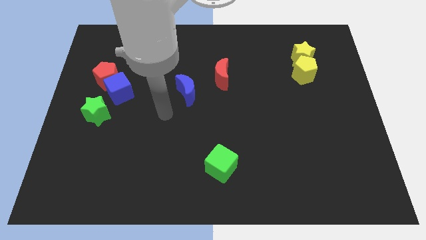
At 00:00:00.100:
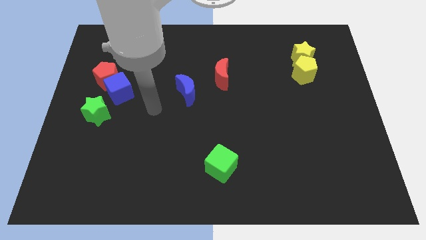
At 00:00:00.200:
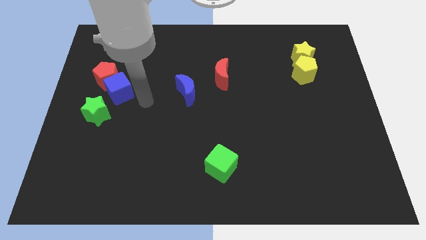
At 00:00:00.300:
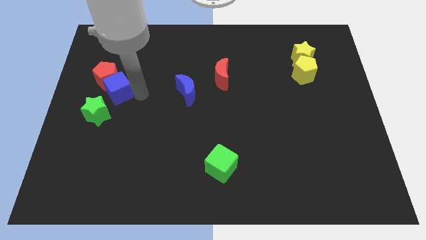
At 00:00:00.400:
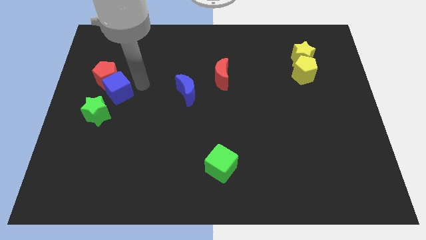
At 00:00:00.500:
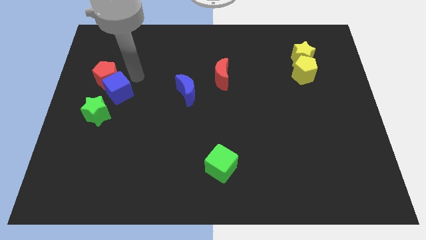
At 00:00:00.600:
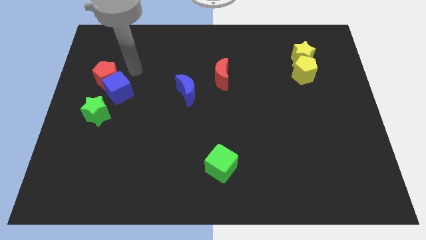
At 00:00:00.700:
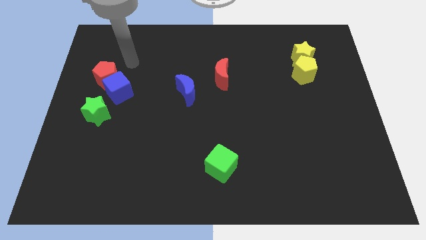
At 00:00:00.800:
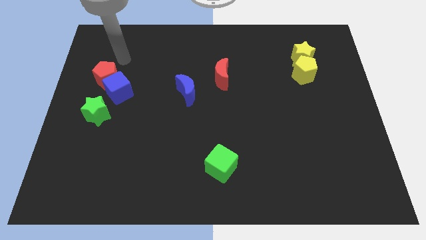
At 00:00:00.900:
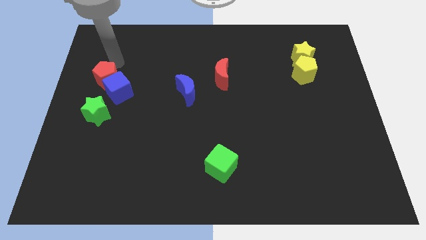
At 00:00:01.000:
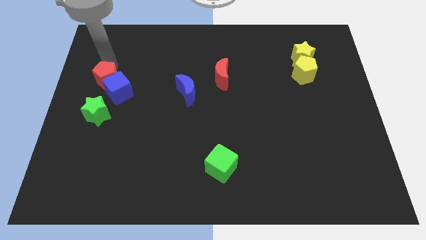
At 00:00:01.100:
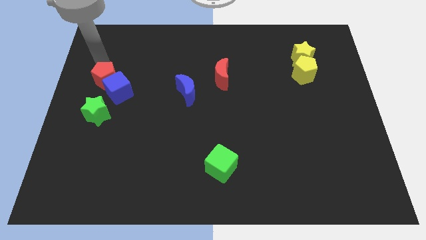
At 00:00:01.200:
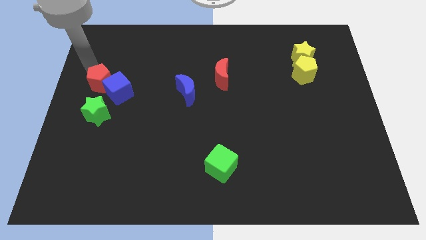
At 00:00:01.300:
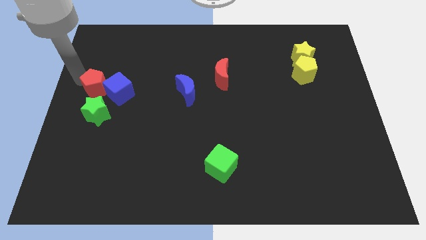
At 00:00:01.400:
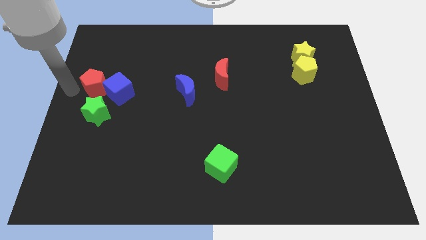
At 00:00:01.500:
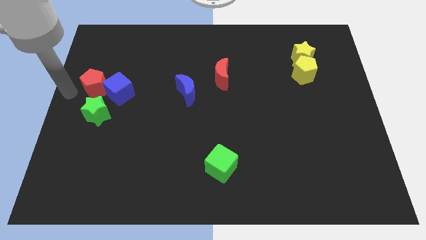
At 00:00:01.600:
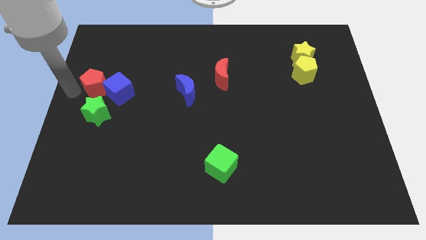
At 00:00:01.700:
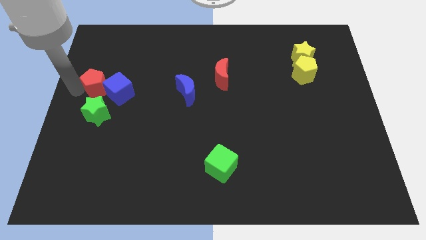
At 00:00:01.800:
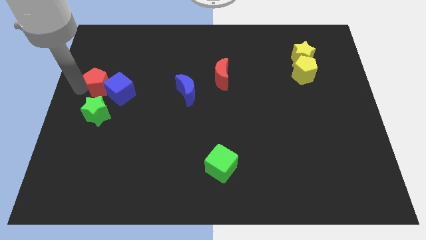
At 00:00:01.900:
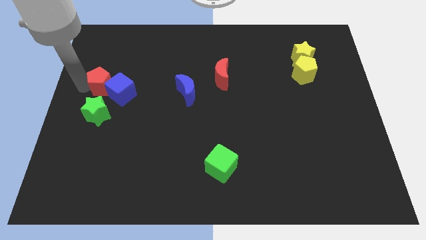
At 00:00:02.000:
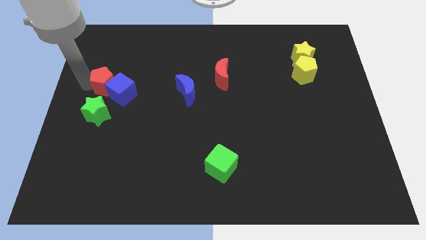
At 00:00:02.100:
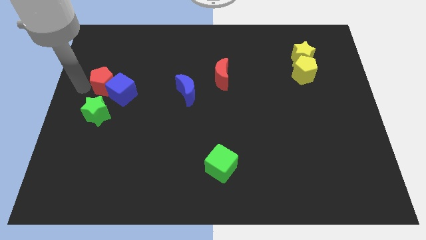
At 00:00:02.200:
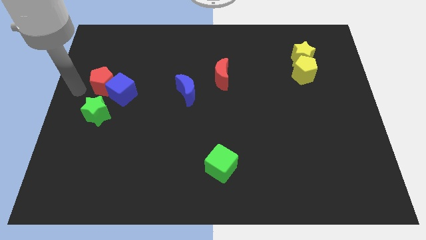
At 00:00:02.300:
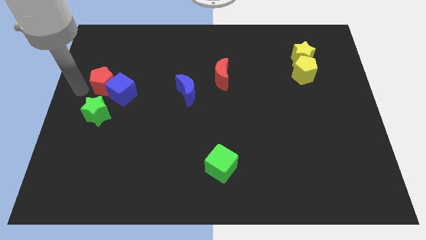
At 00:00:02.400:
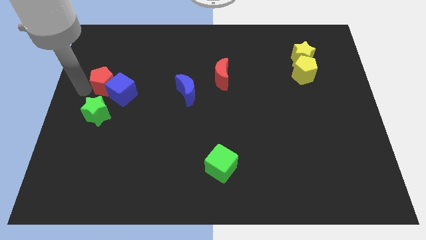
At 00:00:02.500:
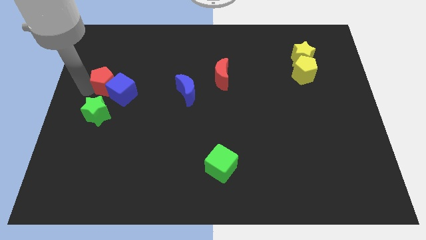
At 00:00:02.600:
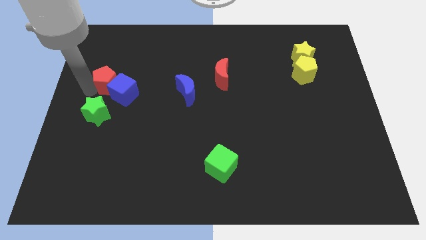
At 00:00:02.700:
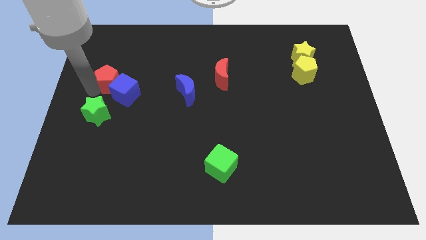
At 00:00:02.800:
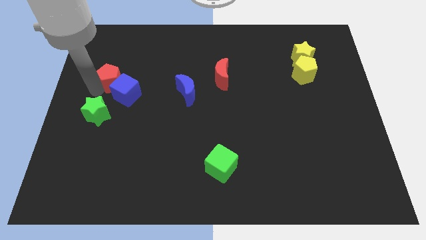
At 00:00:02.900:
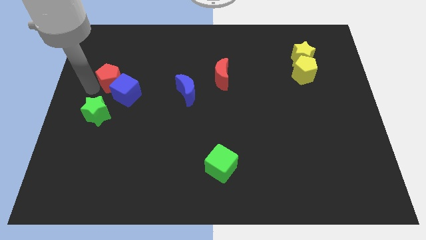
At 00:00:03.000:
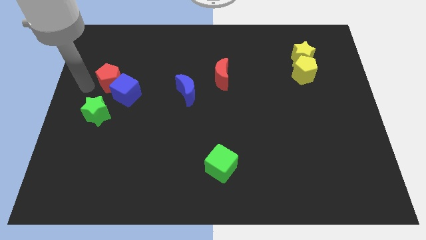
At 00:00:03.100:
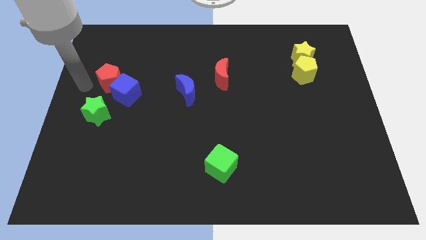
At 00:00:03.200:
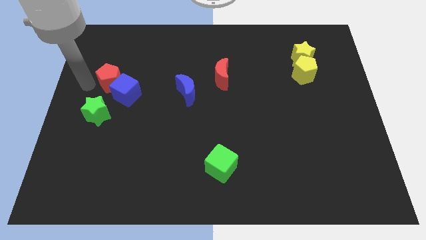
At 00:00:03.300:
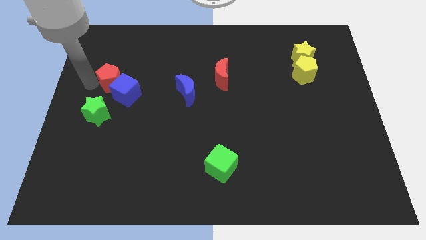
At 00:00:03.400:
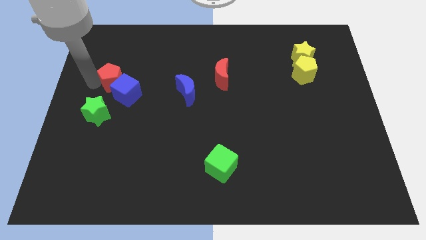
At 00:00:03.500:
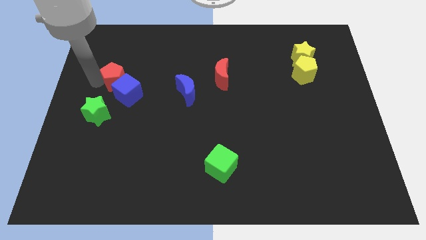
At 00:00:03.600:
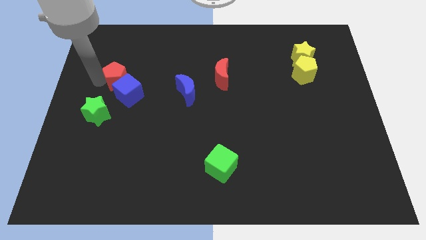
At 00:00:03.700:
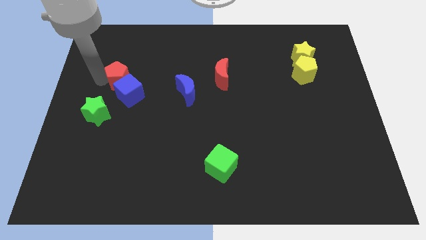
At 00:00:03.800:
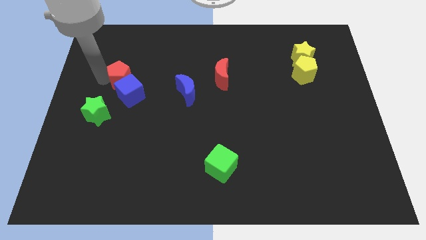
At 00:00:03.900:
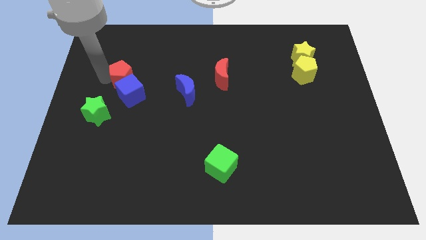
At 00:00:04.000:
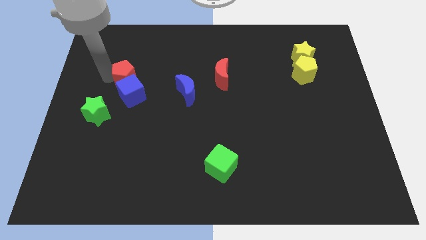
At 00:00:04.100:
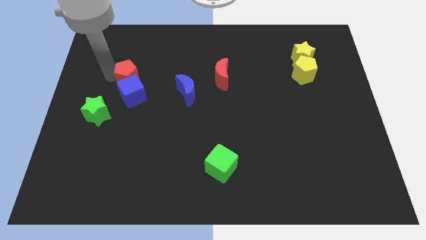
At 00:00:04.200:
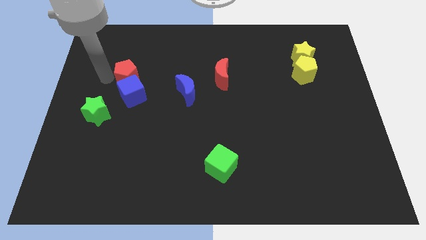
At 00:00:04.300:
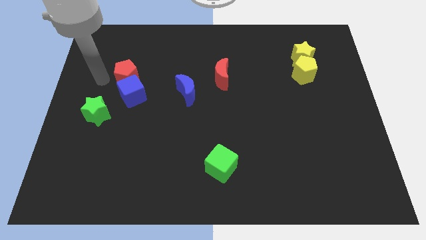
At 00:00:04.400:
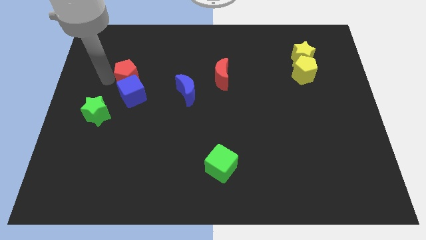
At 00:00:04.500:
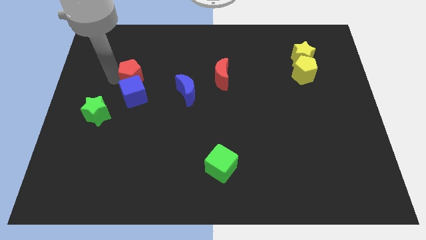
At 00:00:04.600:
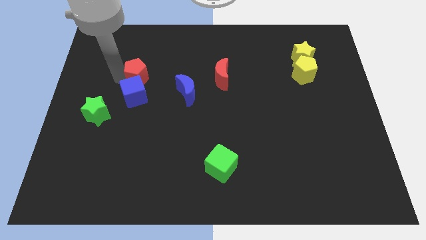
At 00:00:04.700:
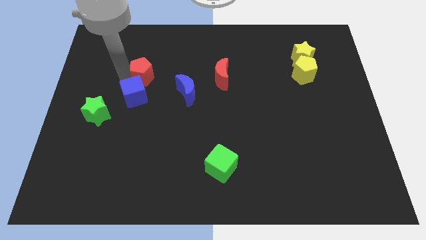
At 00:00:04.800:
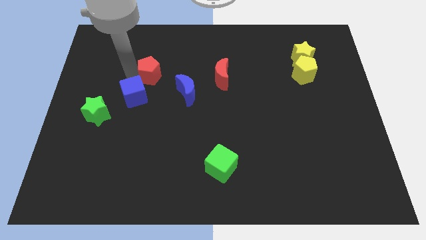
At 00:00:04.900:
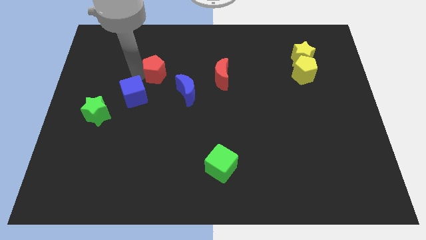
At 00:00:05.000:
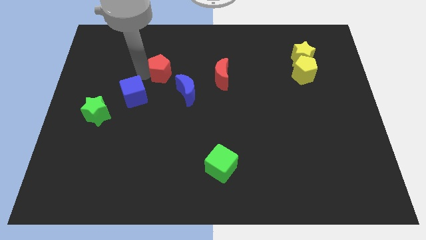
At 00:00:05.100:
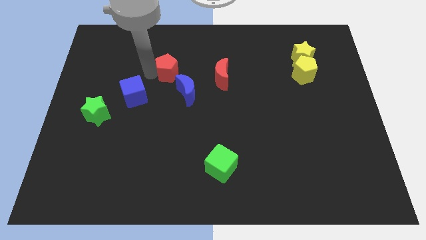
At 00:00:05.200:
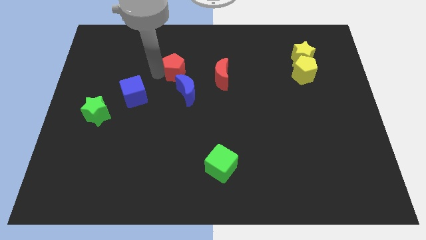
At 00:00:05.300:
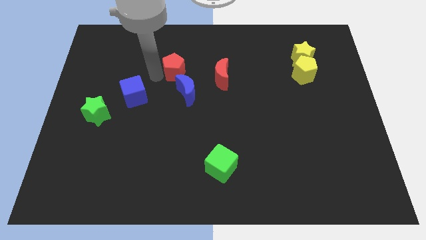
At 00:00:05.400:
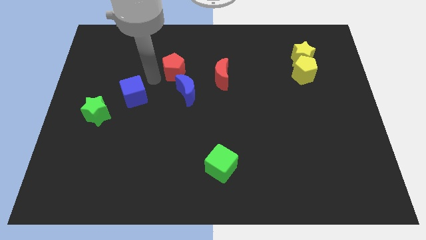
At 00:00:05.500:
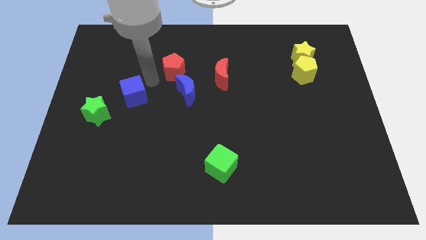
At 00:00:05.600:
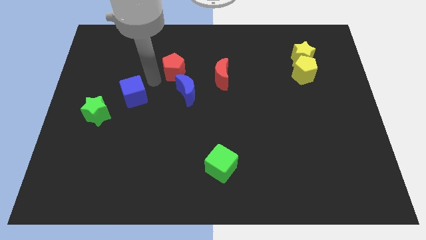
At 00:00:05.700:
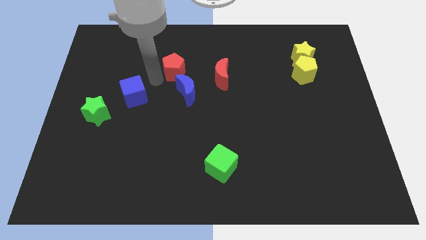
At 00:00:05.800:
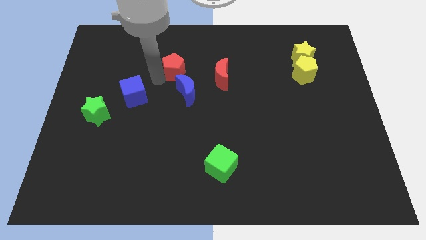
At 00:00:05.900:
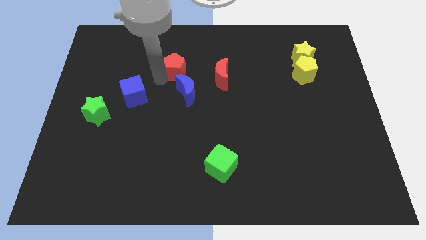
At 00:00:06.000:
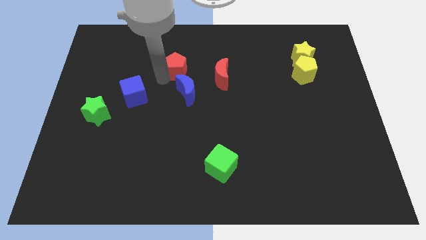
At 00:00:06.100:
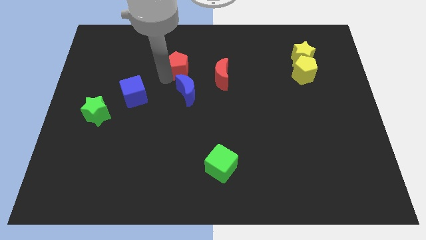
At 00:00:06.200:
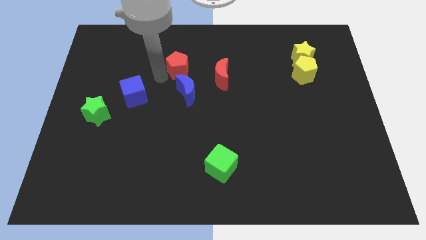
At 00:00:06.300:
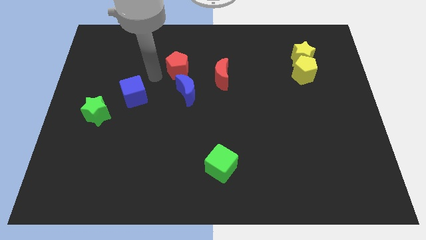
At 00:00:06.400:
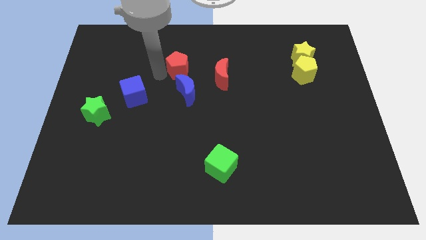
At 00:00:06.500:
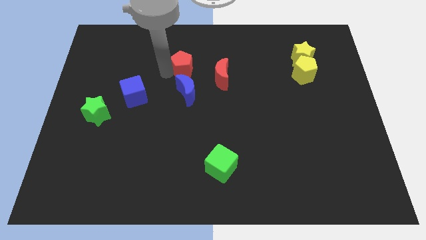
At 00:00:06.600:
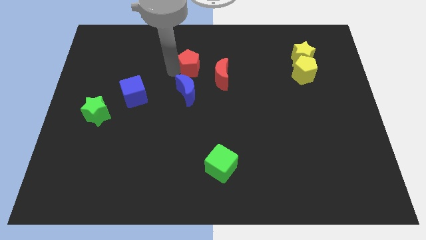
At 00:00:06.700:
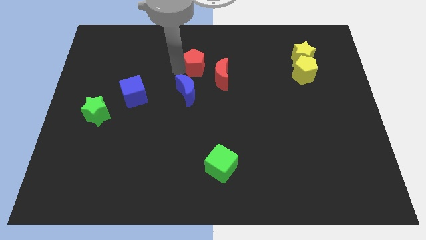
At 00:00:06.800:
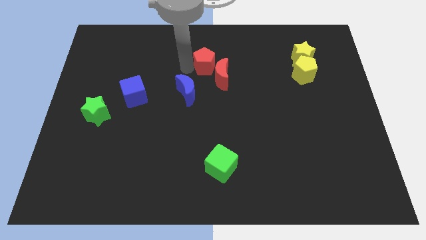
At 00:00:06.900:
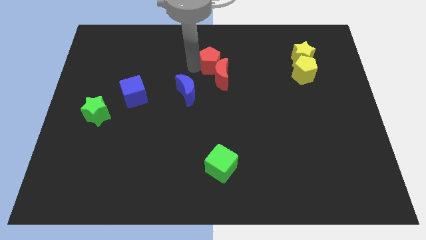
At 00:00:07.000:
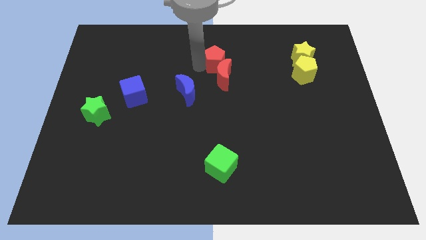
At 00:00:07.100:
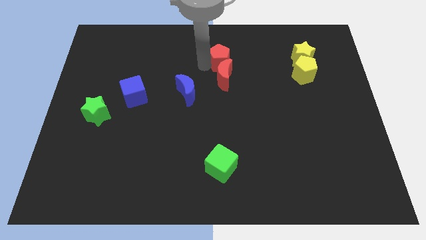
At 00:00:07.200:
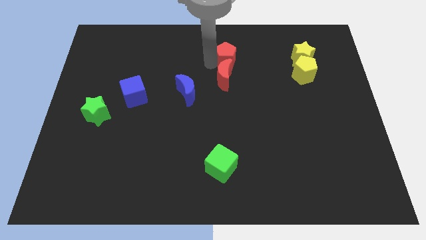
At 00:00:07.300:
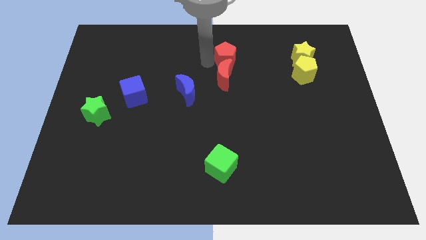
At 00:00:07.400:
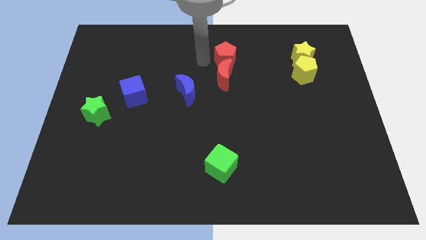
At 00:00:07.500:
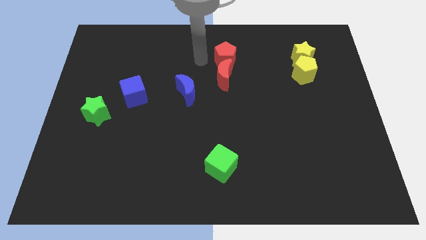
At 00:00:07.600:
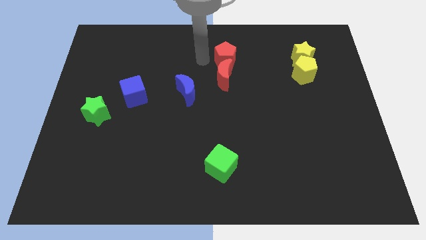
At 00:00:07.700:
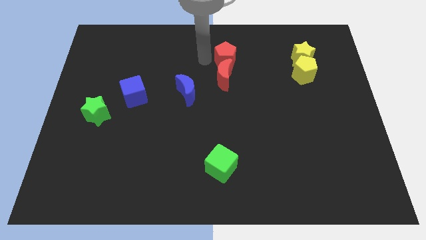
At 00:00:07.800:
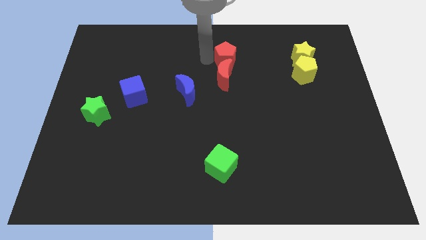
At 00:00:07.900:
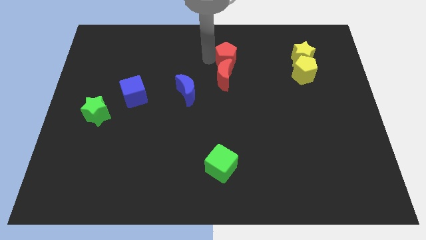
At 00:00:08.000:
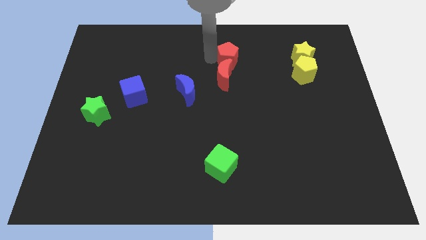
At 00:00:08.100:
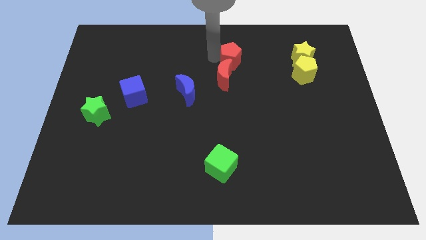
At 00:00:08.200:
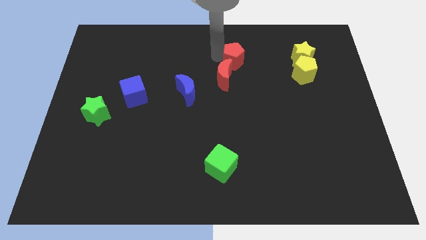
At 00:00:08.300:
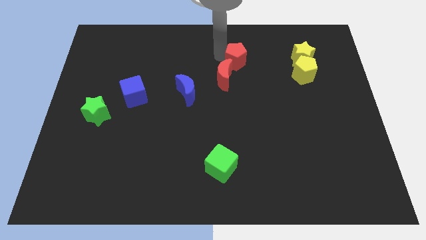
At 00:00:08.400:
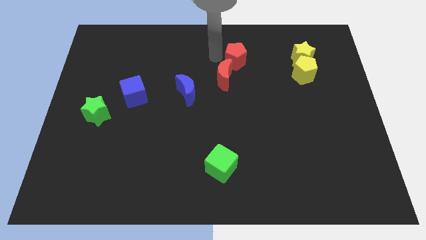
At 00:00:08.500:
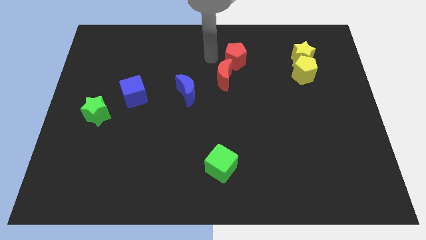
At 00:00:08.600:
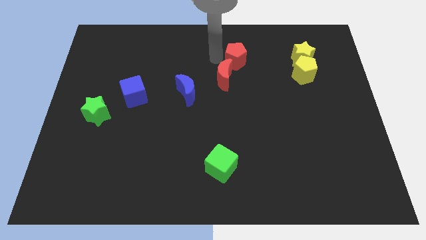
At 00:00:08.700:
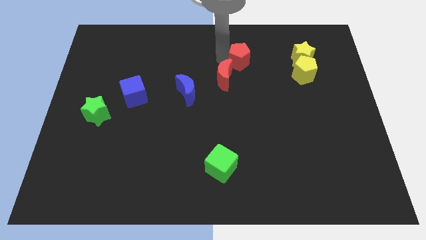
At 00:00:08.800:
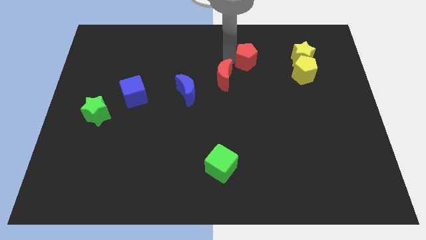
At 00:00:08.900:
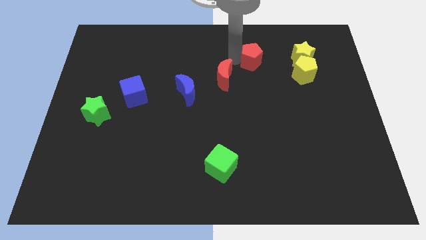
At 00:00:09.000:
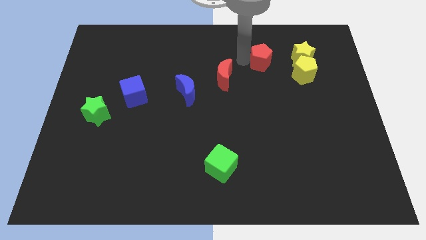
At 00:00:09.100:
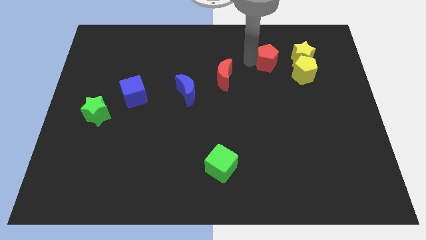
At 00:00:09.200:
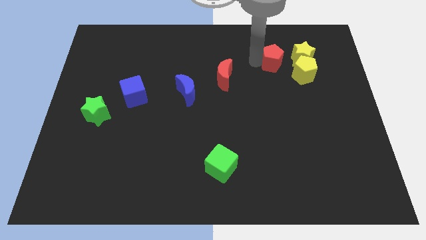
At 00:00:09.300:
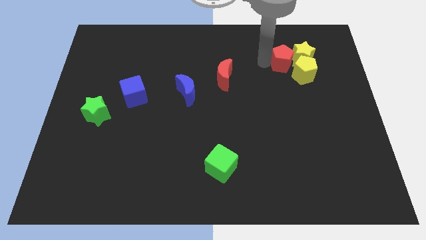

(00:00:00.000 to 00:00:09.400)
push the red pentagon to the yellow star
